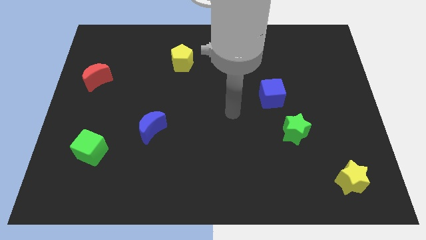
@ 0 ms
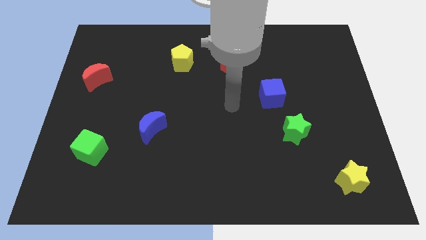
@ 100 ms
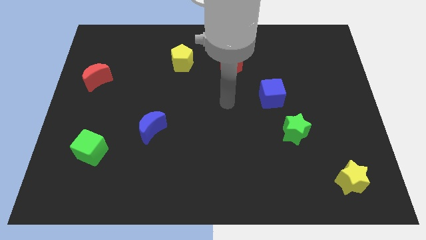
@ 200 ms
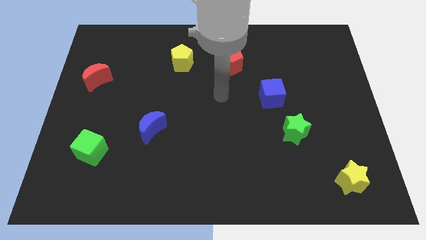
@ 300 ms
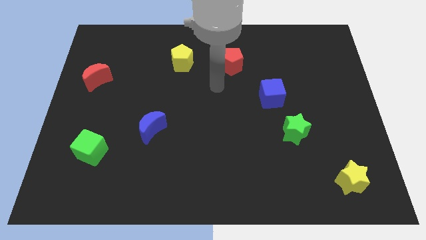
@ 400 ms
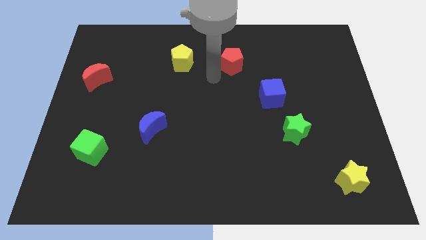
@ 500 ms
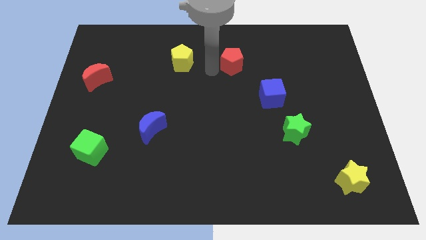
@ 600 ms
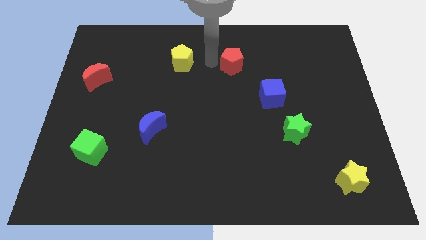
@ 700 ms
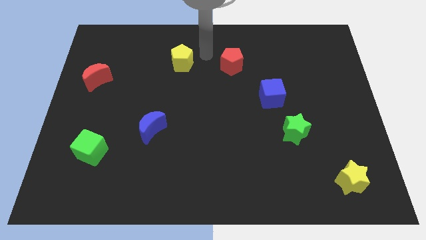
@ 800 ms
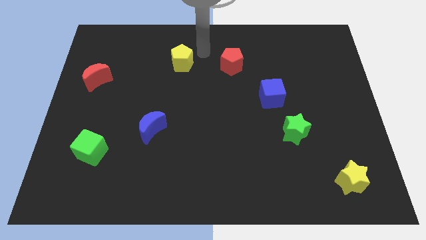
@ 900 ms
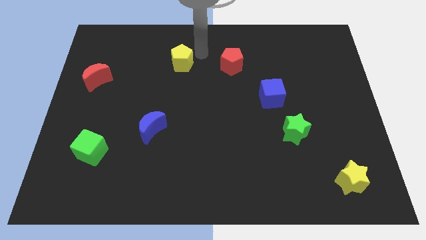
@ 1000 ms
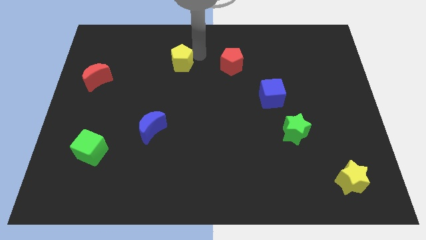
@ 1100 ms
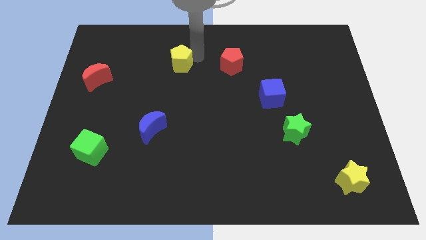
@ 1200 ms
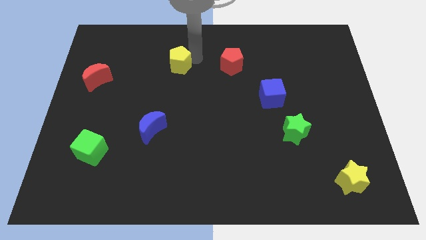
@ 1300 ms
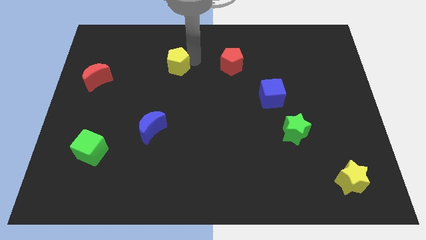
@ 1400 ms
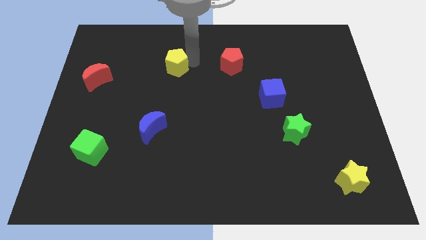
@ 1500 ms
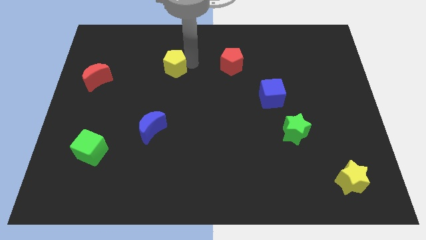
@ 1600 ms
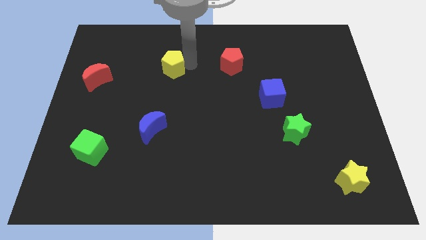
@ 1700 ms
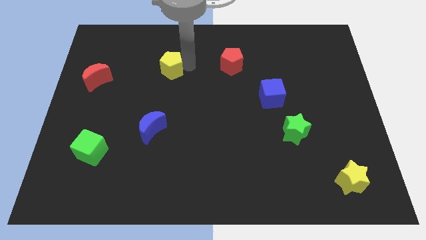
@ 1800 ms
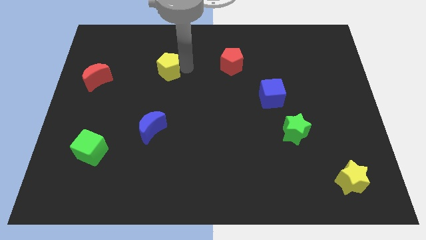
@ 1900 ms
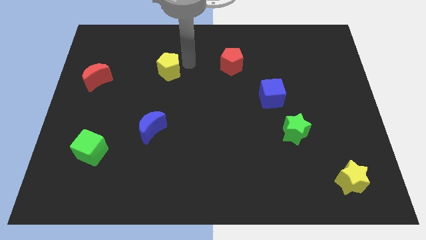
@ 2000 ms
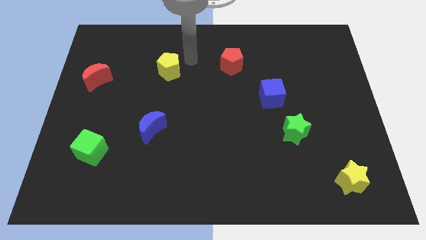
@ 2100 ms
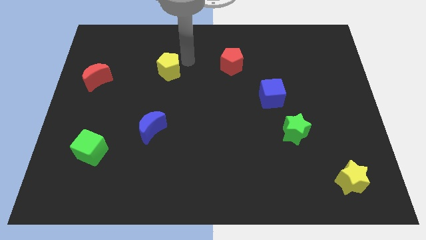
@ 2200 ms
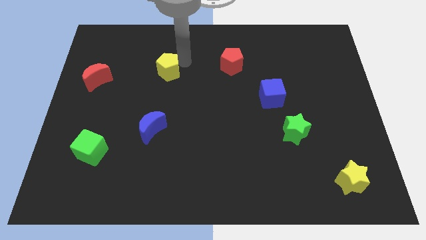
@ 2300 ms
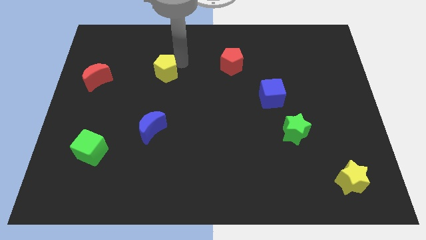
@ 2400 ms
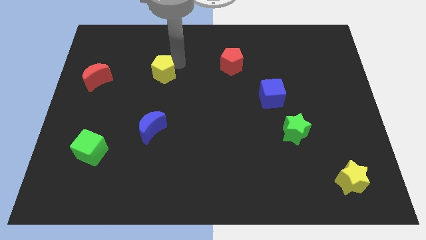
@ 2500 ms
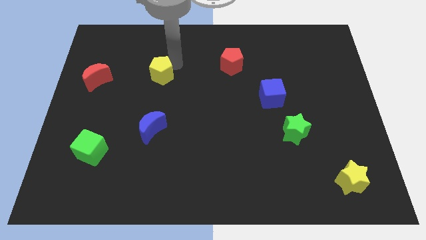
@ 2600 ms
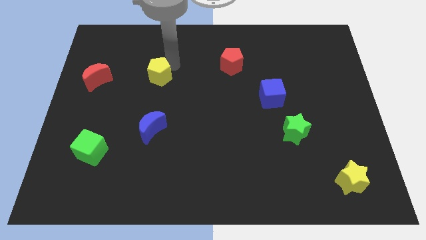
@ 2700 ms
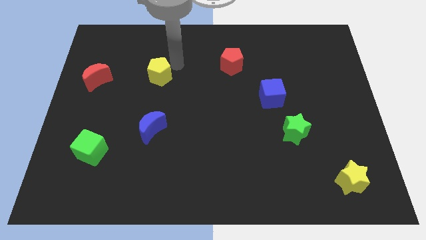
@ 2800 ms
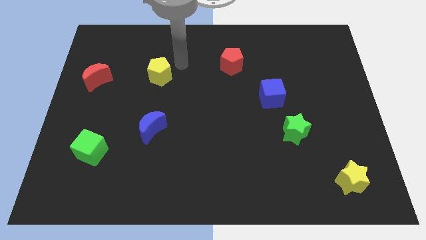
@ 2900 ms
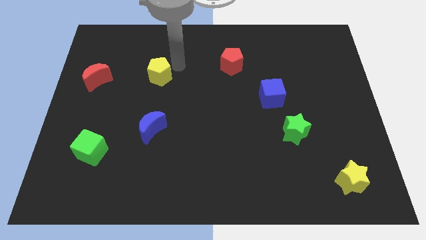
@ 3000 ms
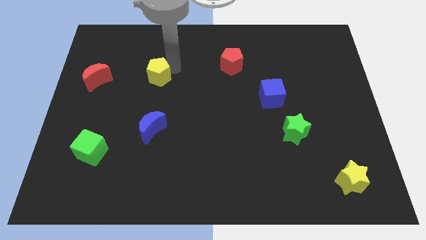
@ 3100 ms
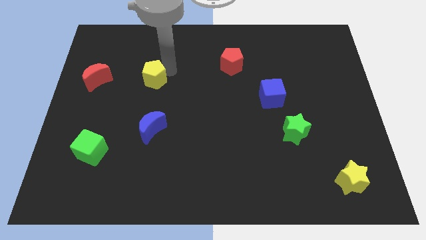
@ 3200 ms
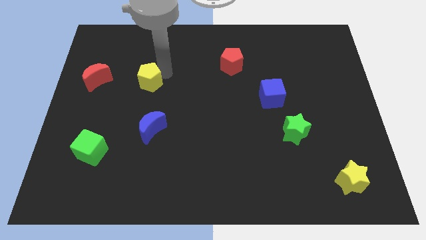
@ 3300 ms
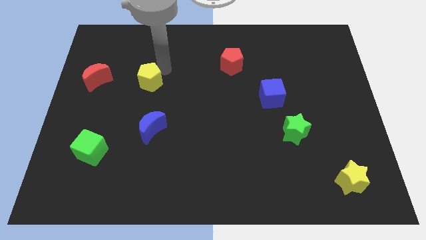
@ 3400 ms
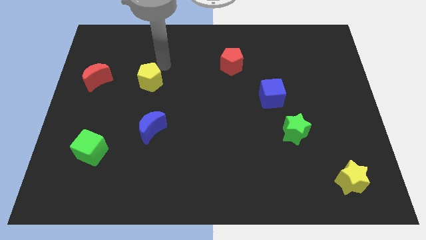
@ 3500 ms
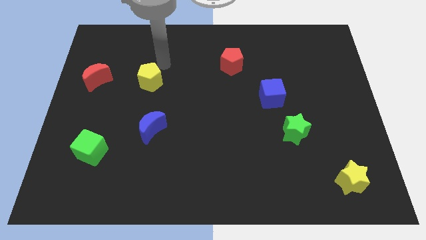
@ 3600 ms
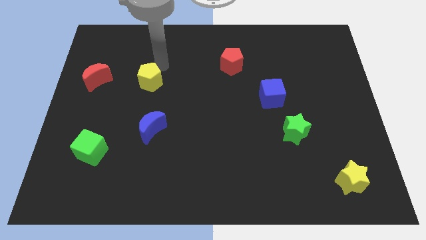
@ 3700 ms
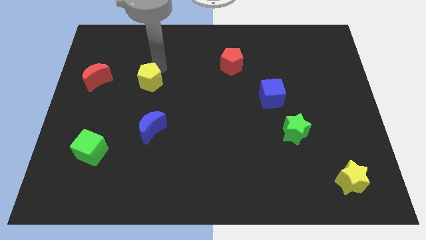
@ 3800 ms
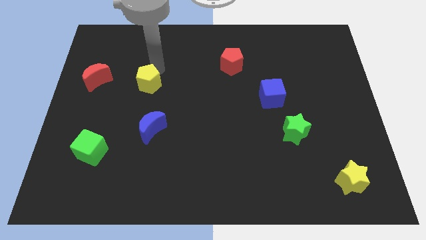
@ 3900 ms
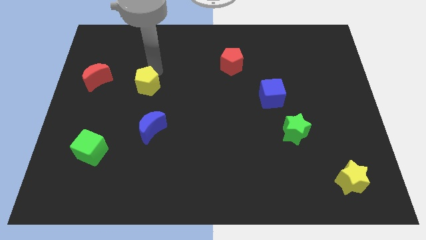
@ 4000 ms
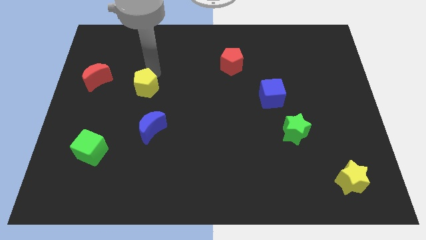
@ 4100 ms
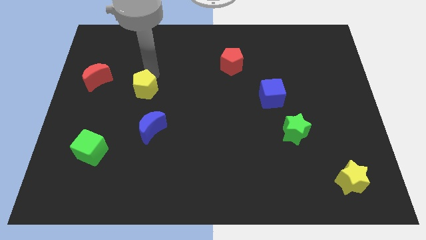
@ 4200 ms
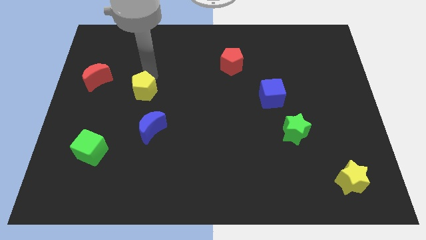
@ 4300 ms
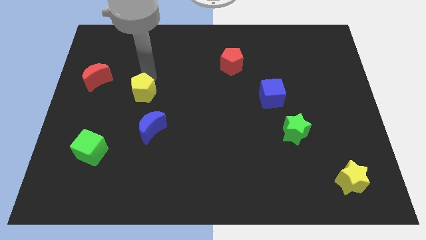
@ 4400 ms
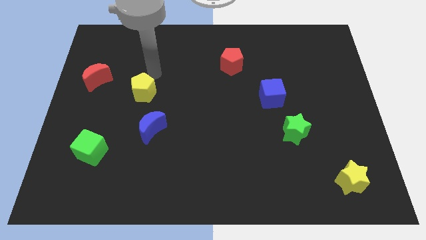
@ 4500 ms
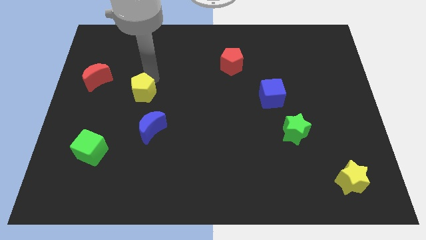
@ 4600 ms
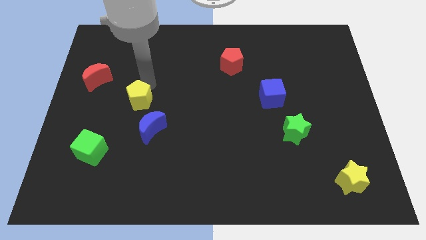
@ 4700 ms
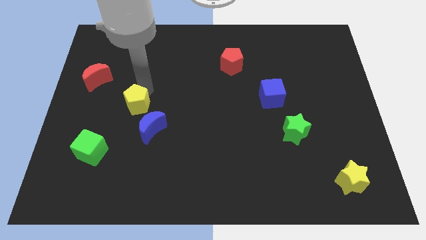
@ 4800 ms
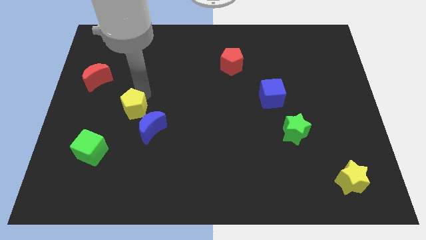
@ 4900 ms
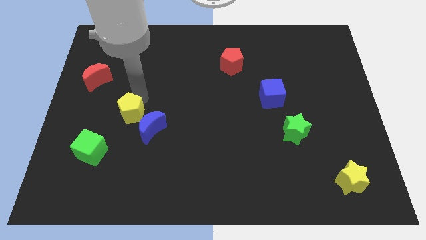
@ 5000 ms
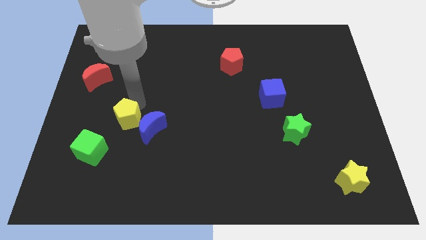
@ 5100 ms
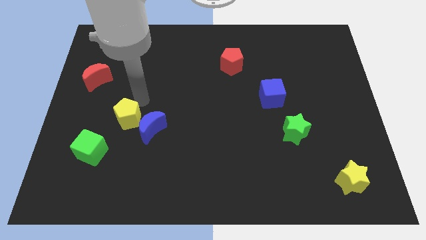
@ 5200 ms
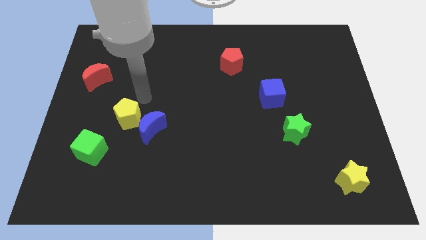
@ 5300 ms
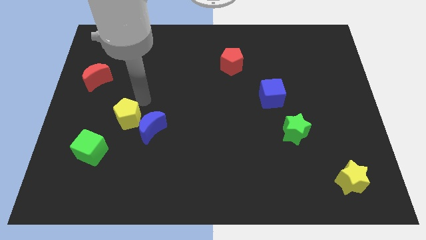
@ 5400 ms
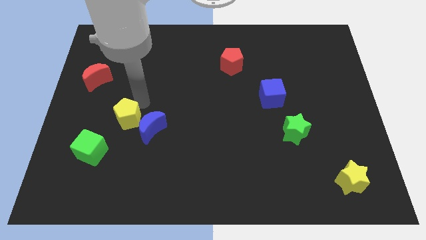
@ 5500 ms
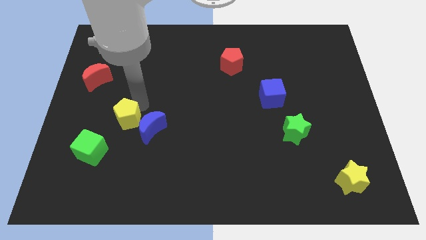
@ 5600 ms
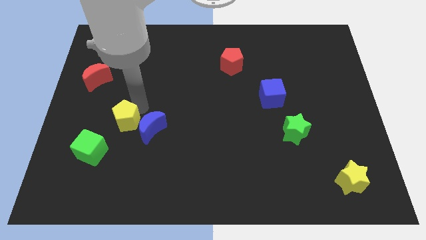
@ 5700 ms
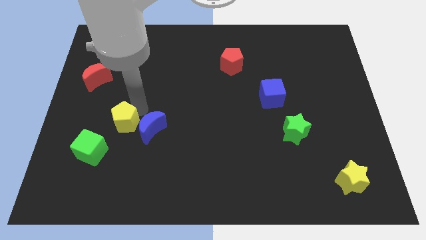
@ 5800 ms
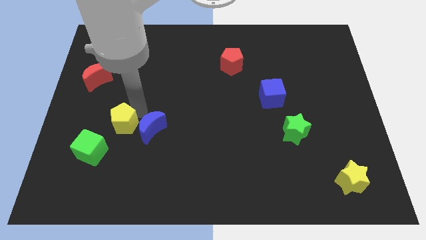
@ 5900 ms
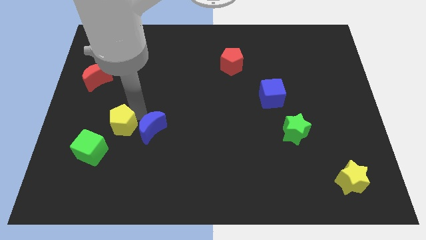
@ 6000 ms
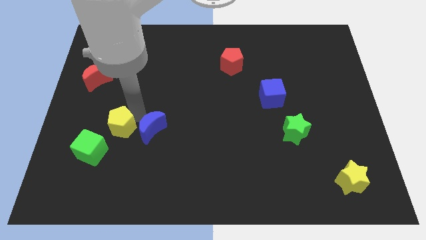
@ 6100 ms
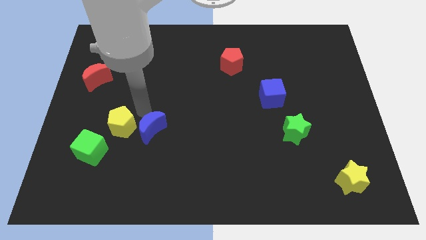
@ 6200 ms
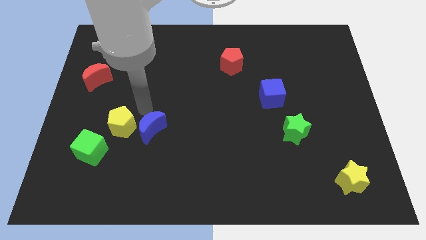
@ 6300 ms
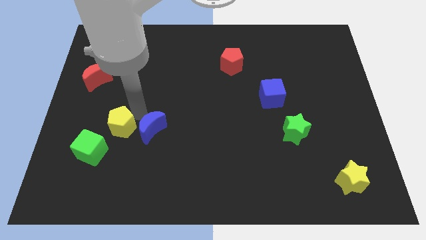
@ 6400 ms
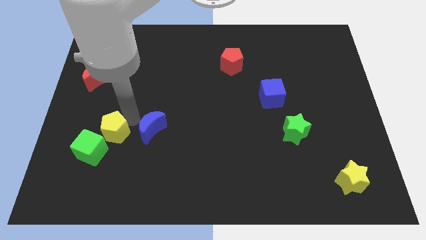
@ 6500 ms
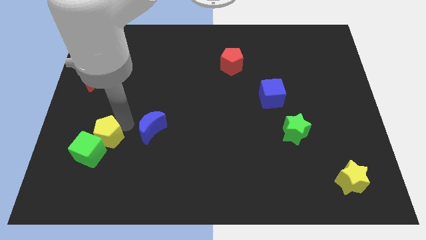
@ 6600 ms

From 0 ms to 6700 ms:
move the yellow pentagon next to the green cube
